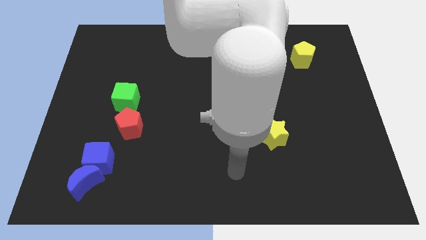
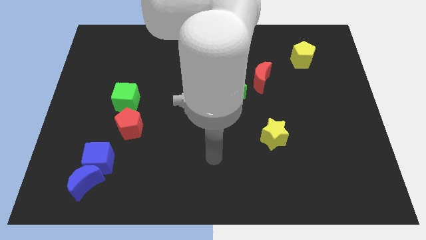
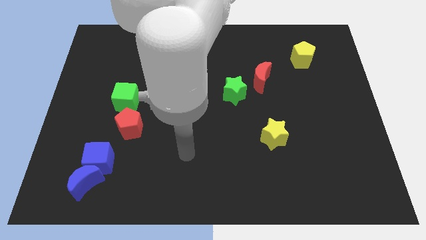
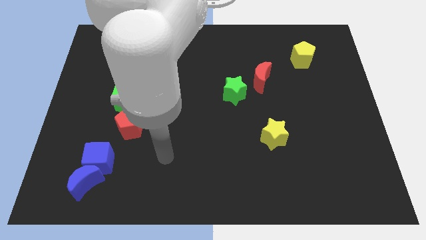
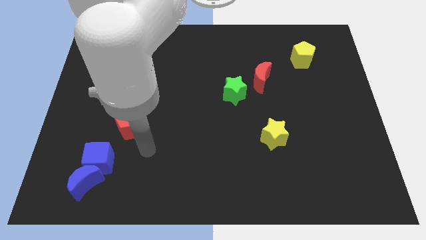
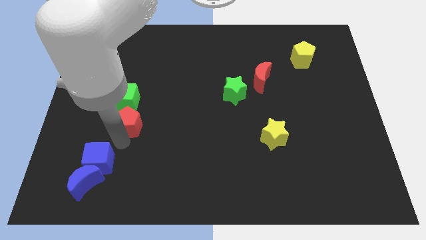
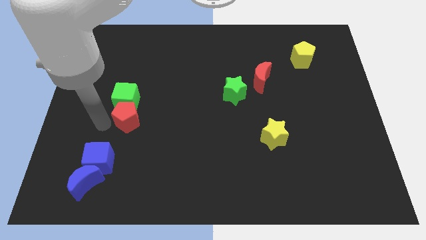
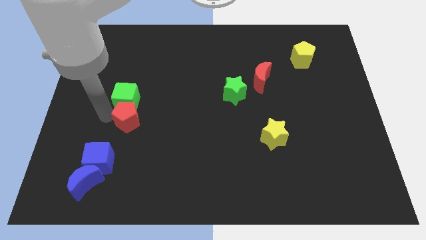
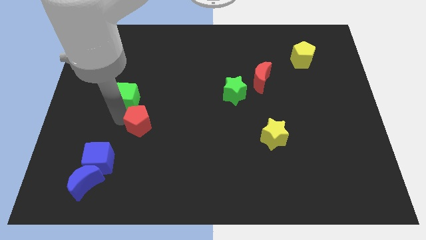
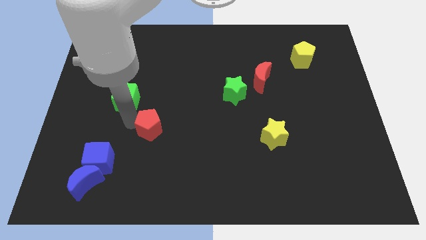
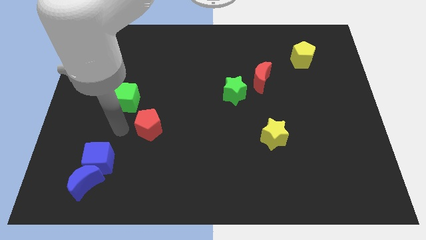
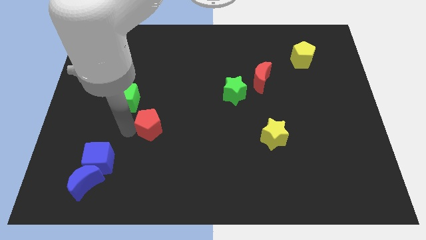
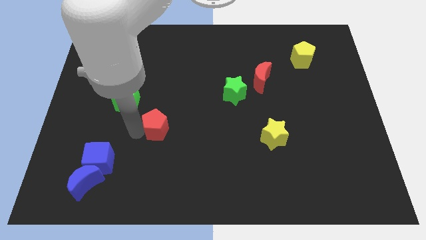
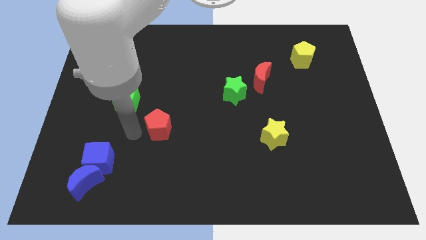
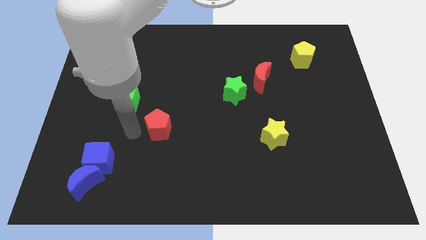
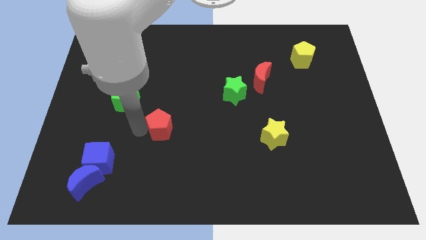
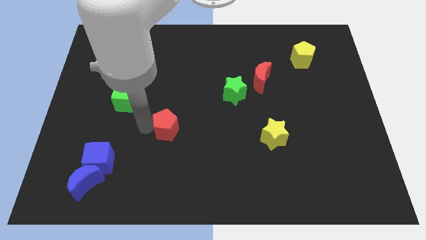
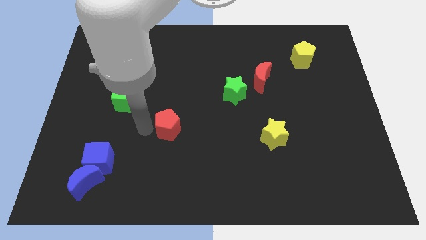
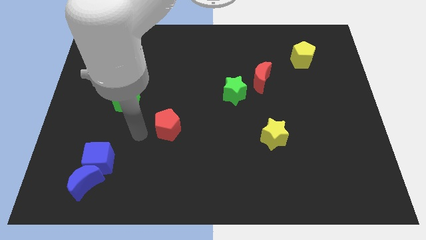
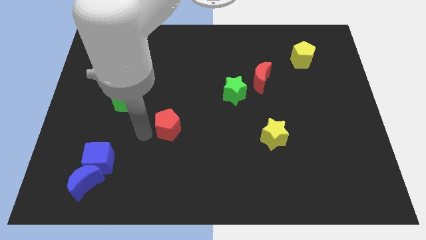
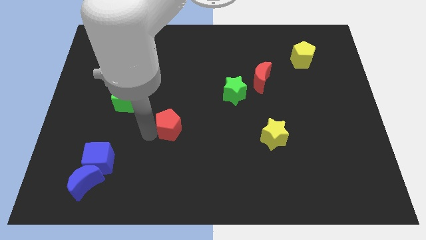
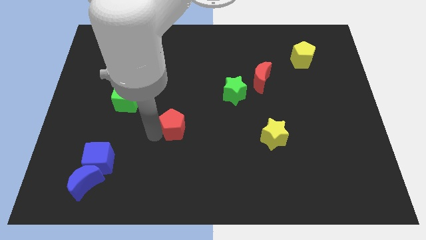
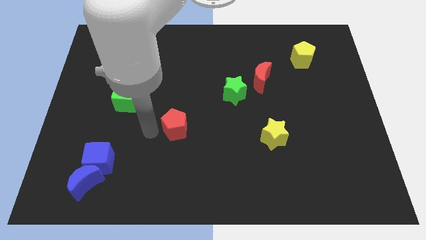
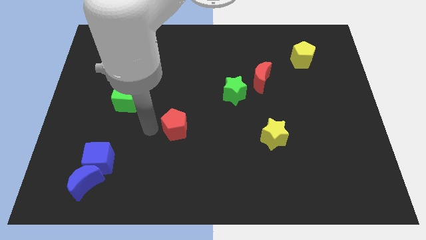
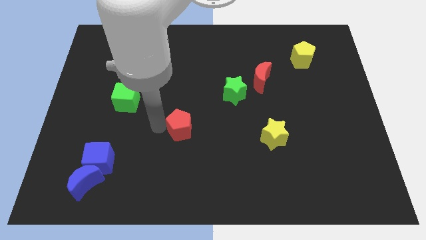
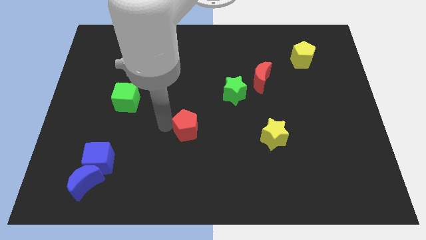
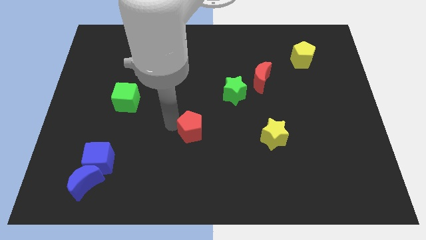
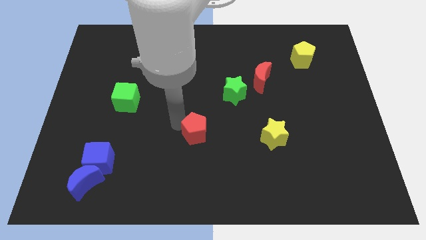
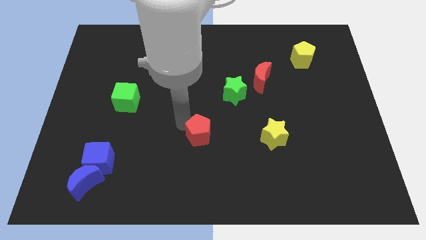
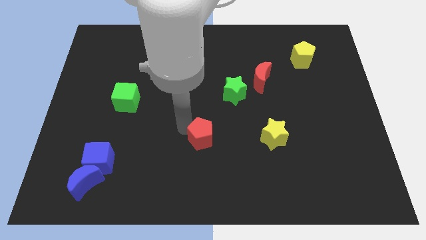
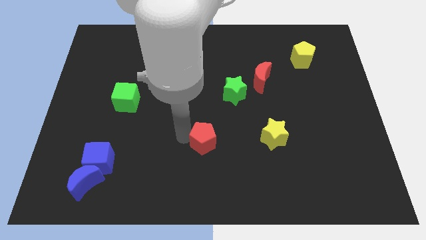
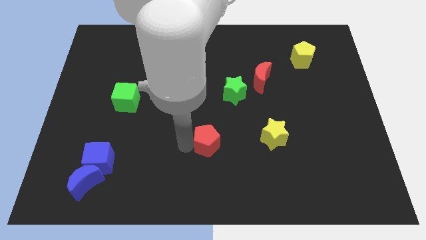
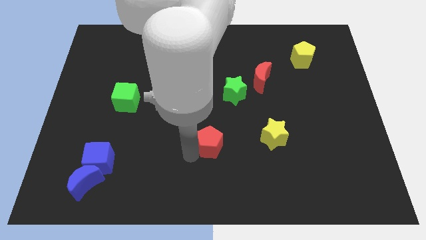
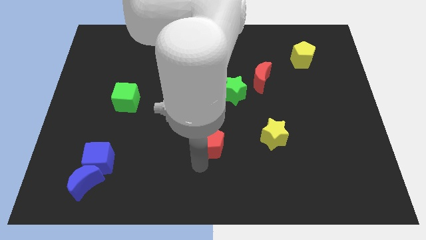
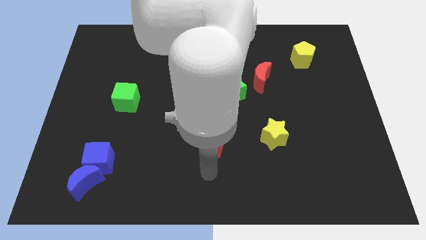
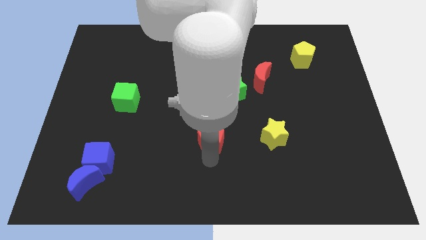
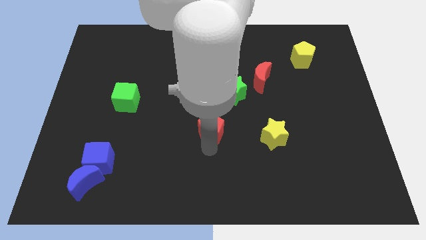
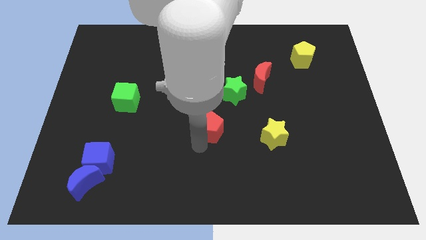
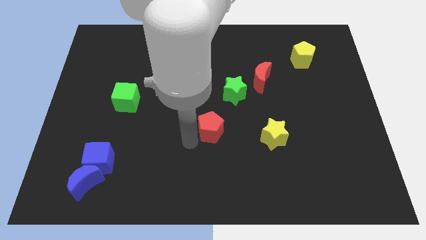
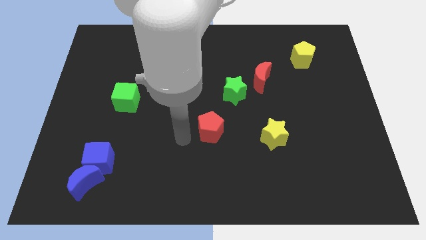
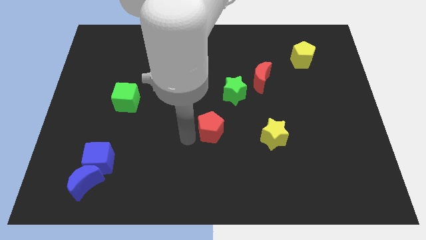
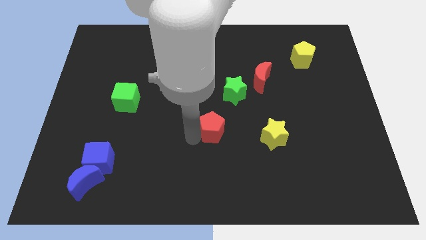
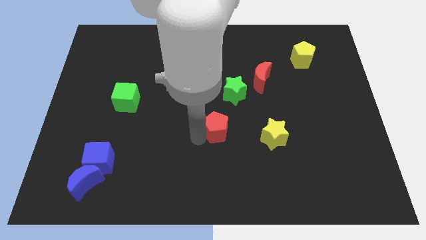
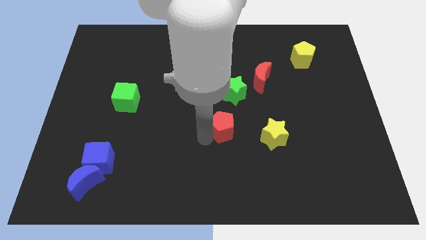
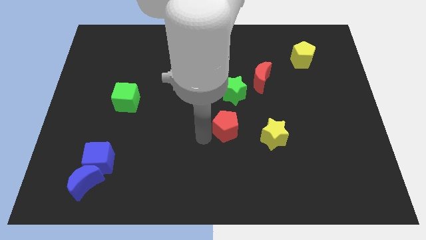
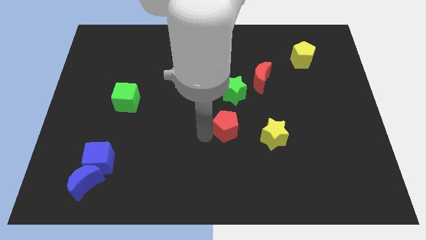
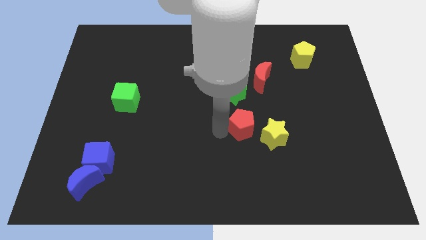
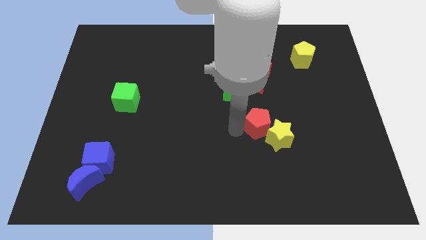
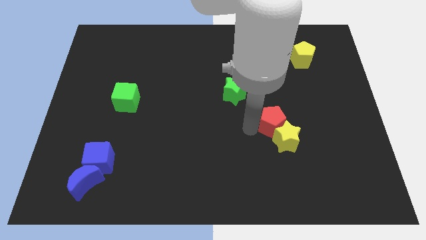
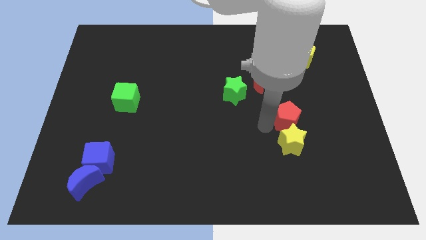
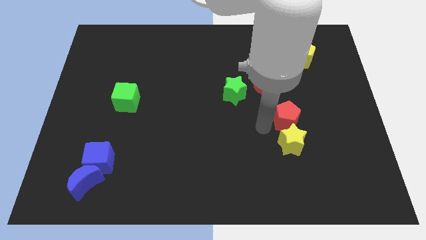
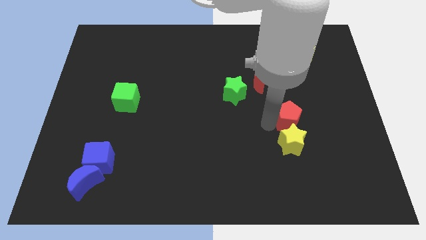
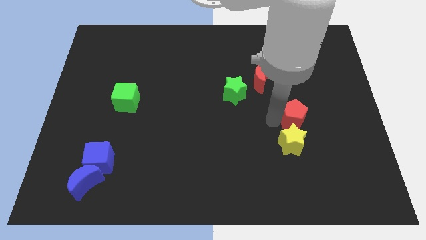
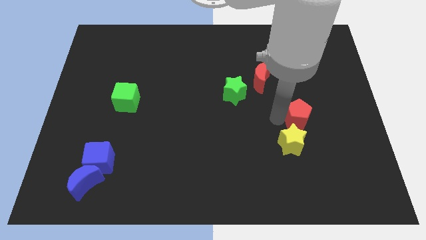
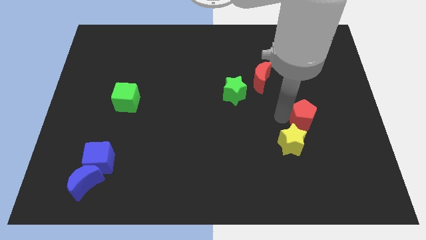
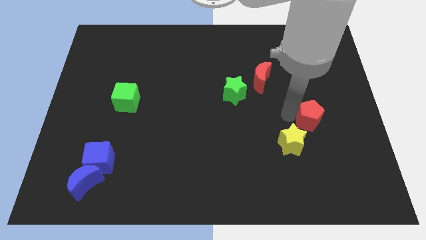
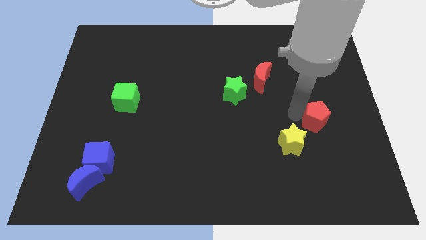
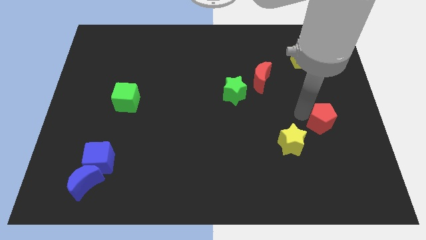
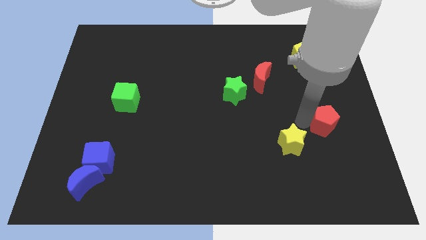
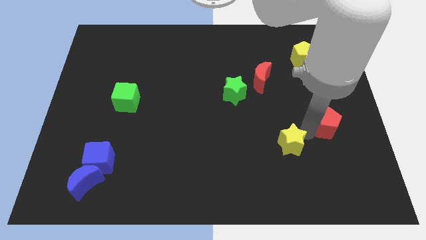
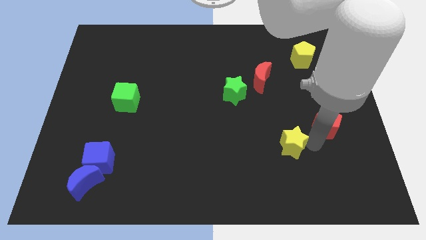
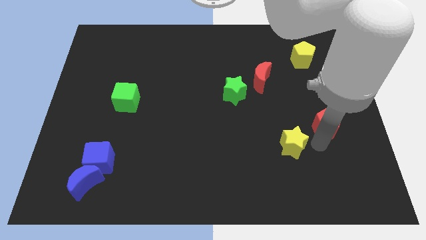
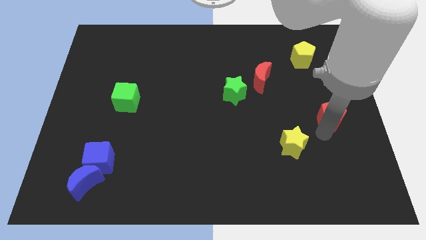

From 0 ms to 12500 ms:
put the red pentagon to the right side of the board
